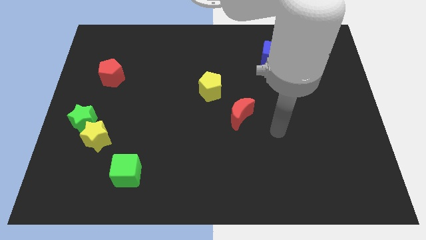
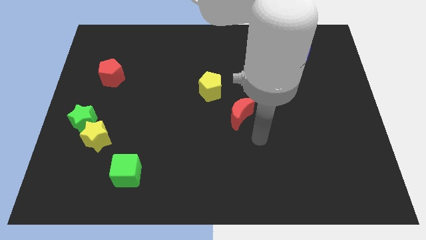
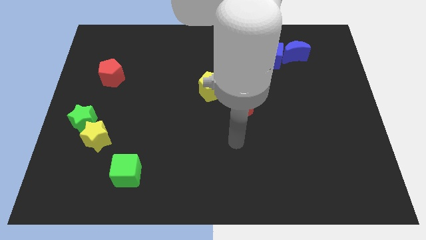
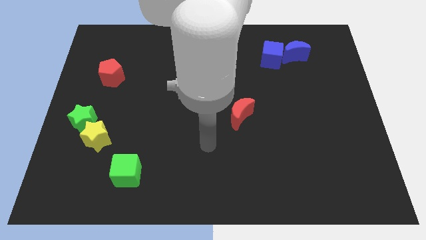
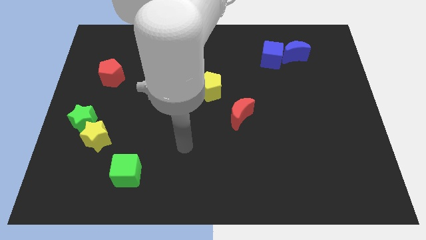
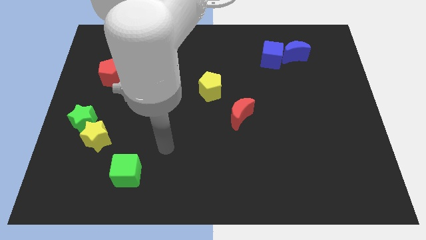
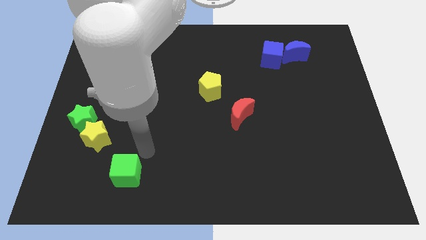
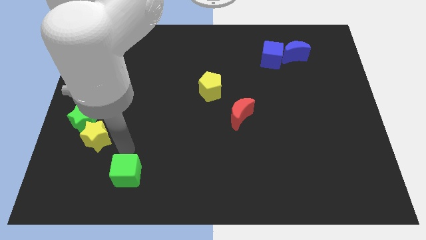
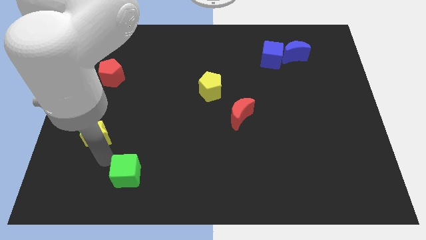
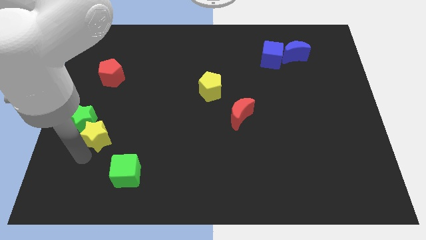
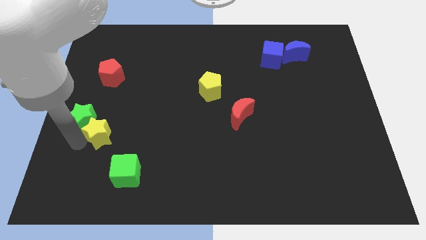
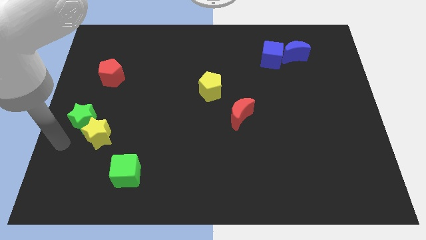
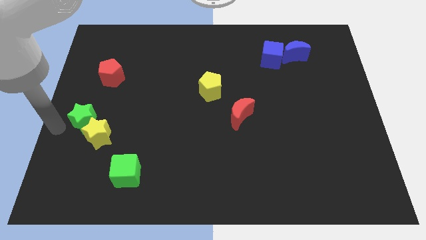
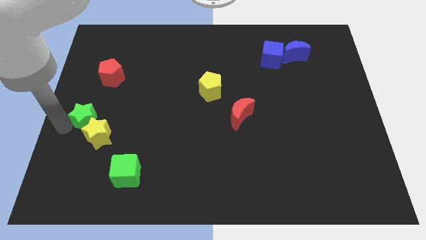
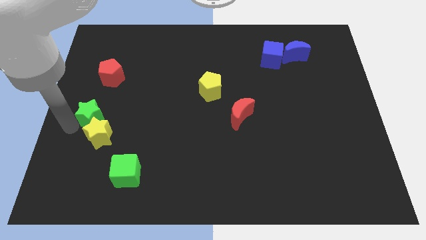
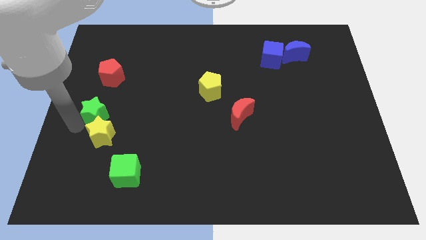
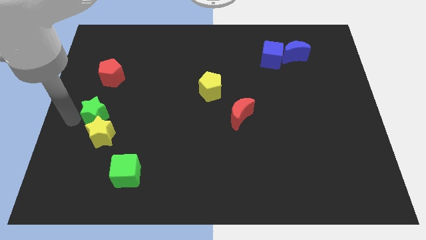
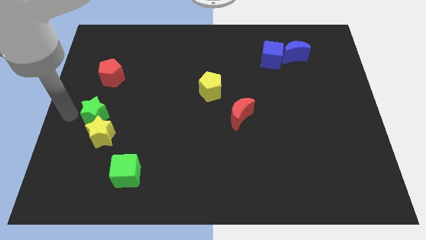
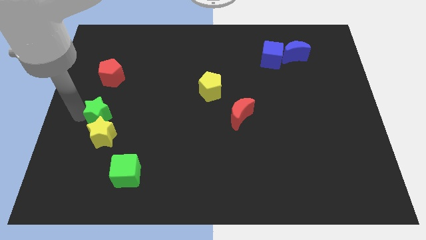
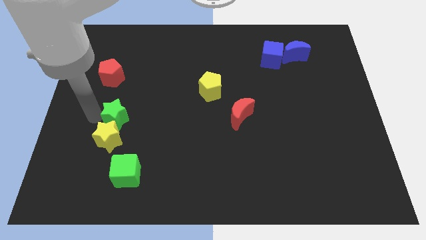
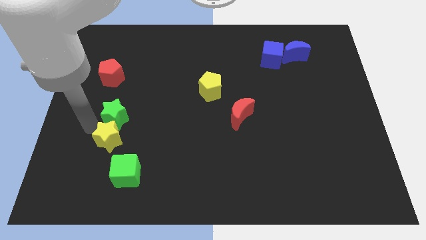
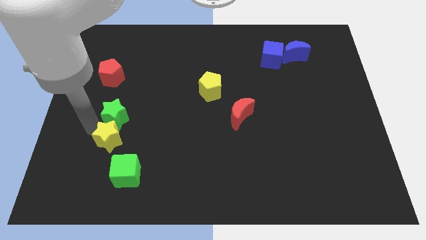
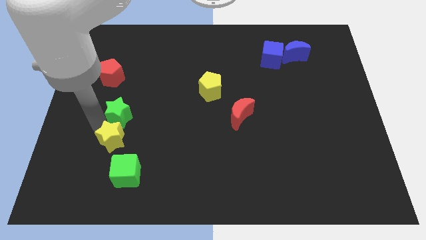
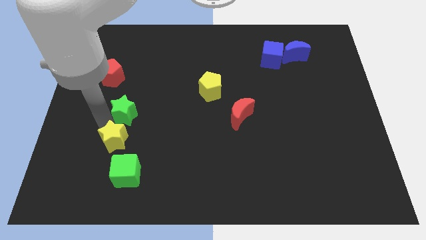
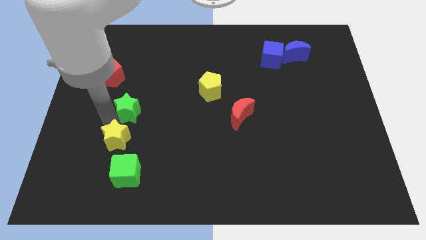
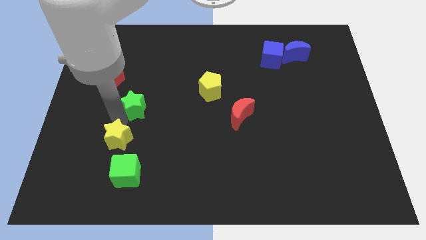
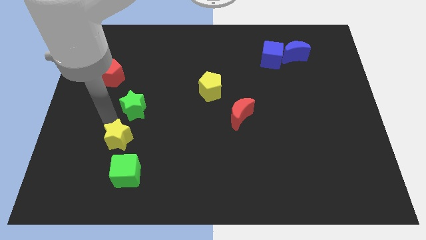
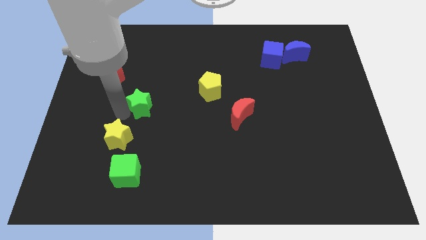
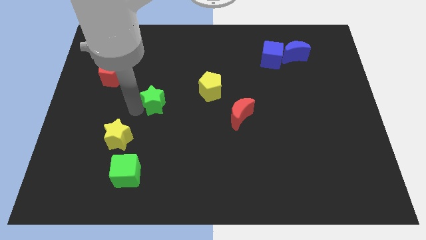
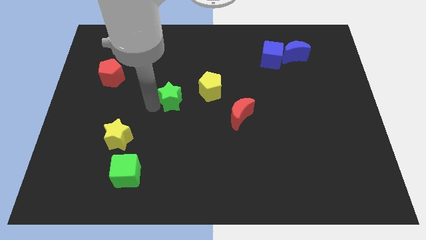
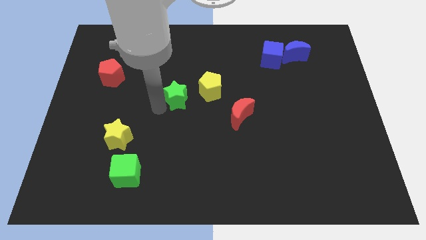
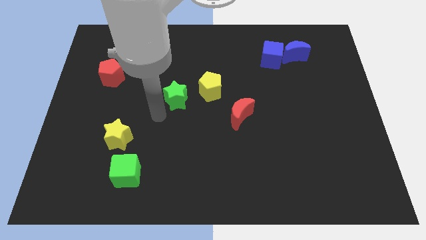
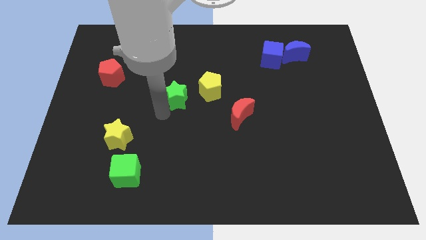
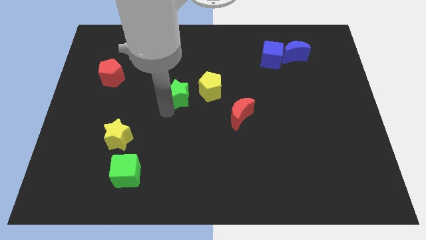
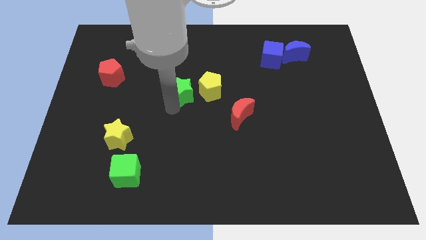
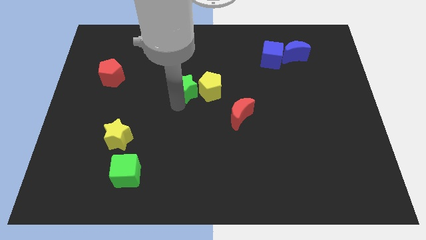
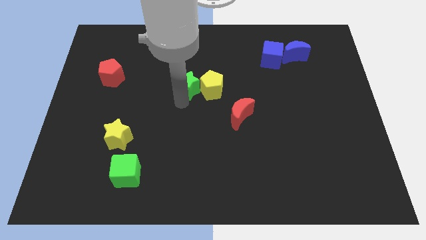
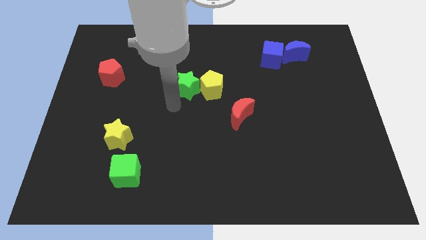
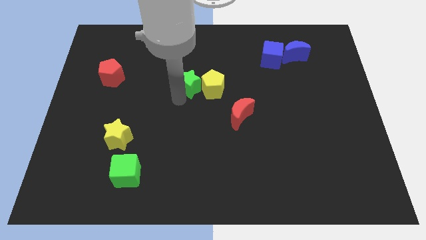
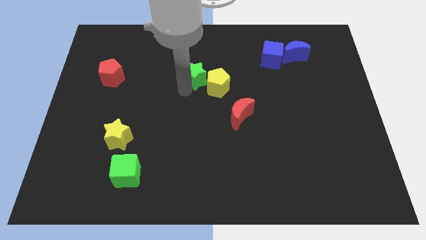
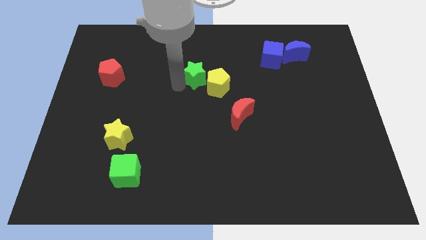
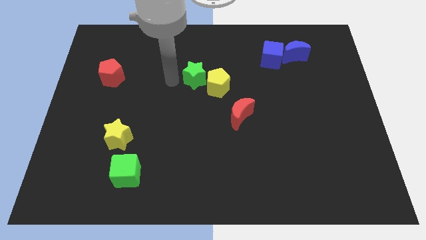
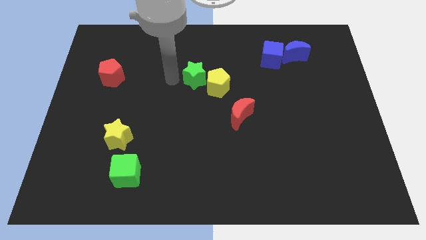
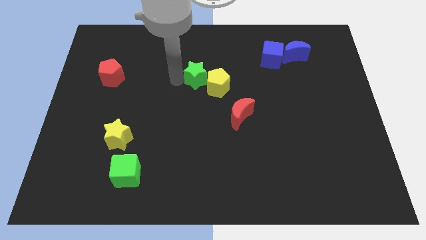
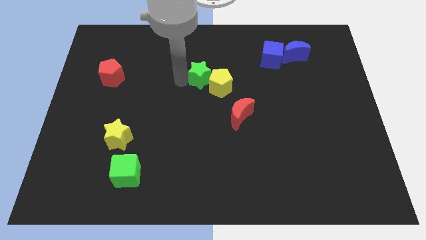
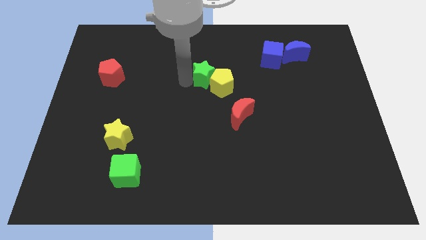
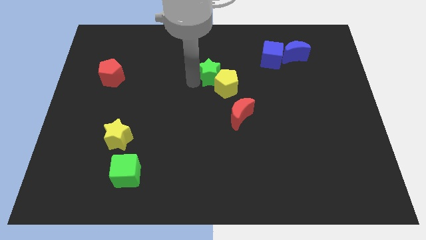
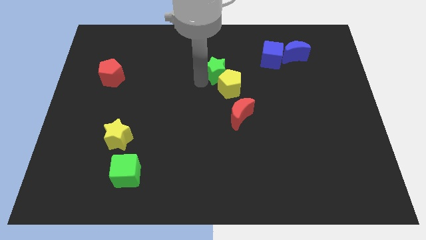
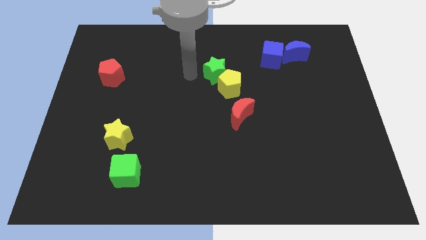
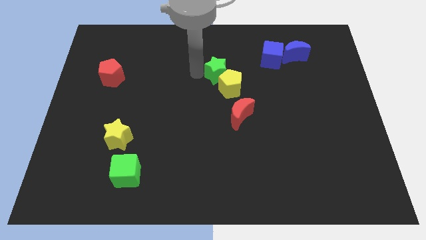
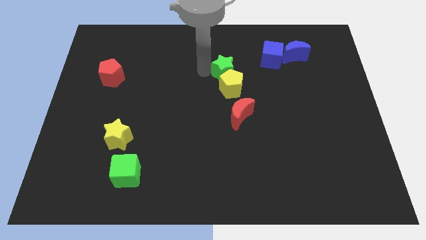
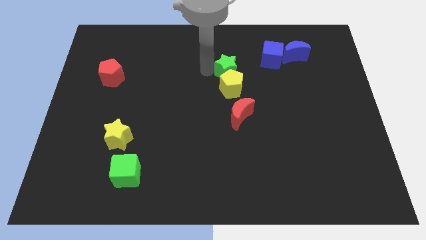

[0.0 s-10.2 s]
put the green star to the top right of the yellow pentagon

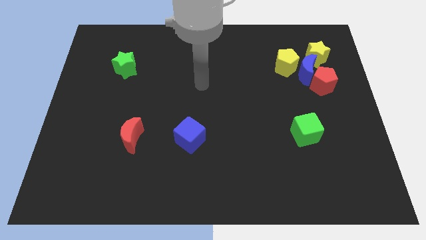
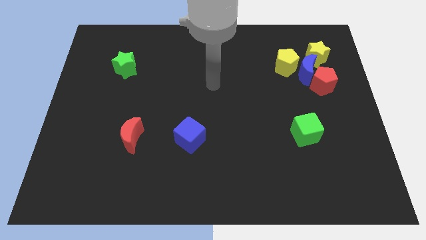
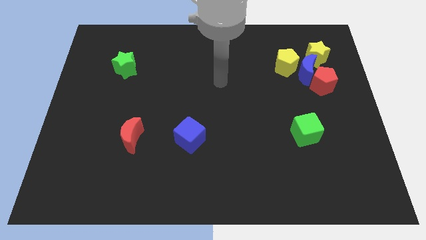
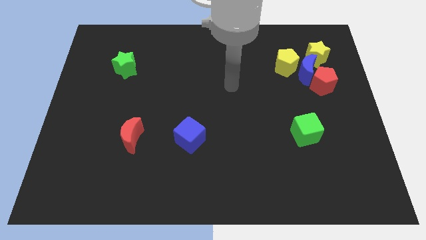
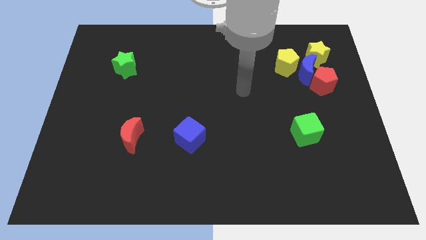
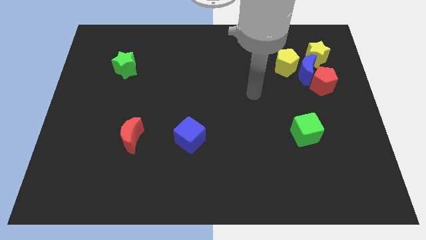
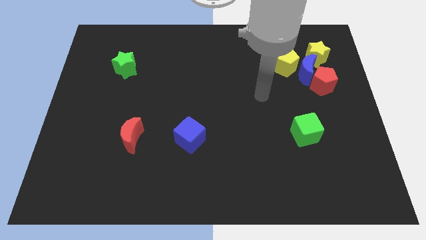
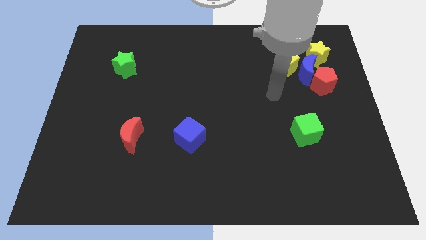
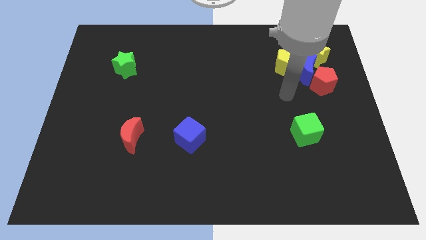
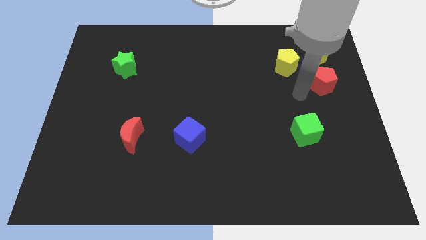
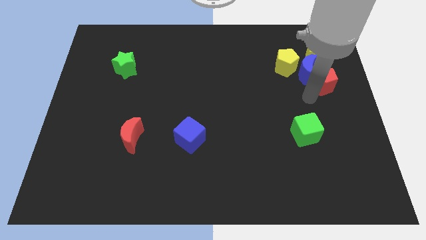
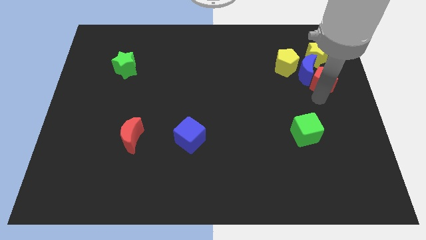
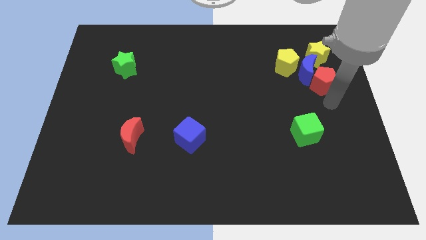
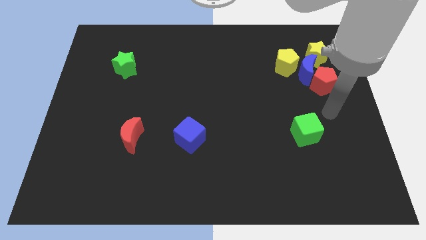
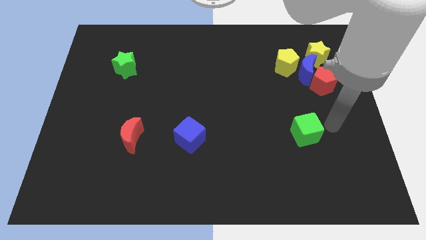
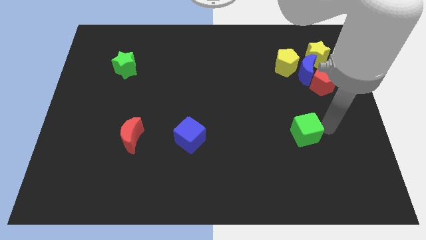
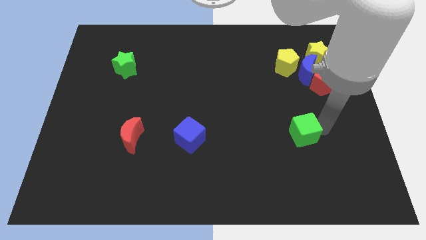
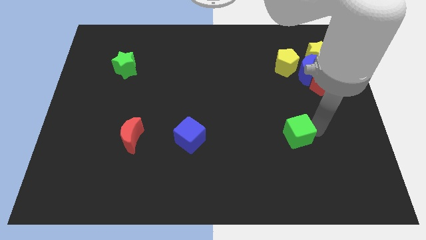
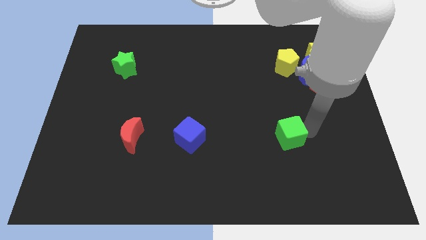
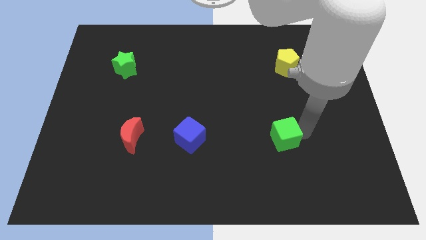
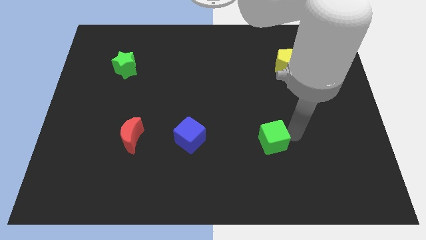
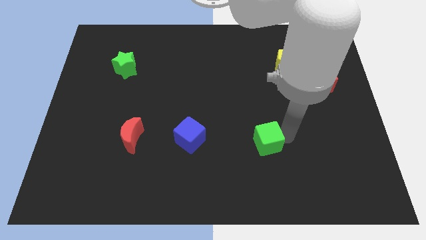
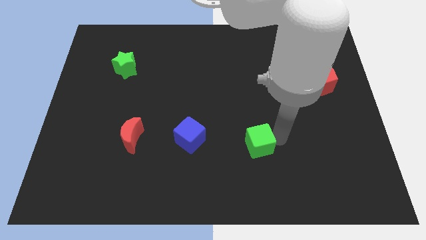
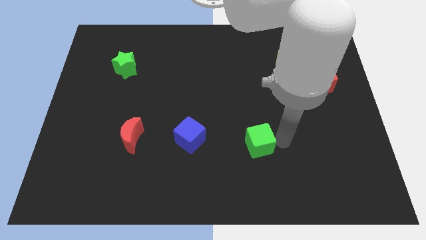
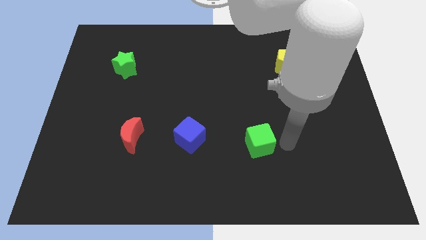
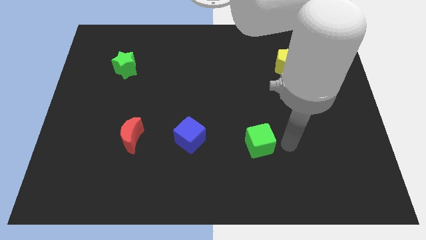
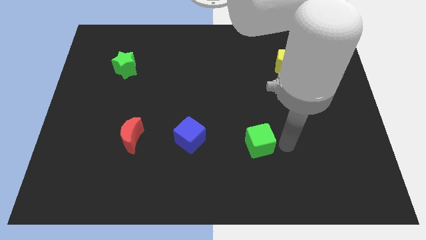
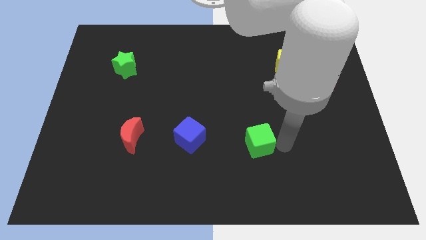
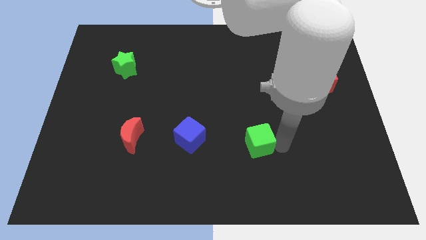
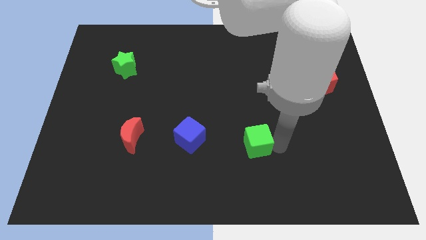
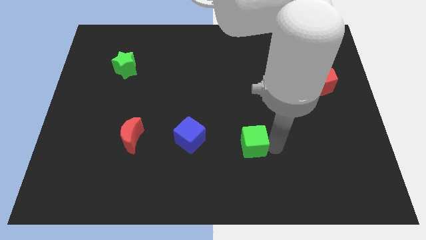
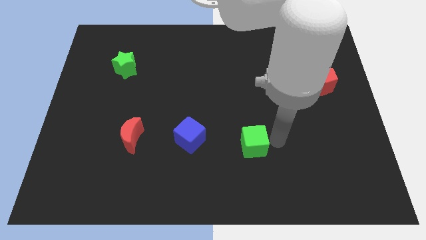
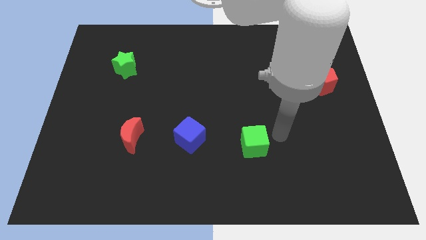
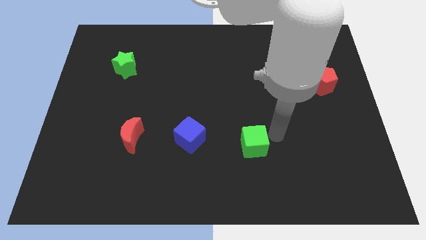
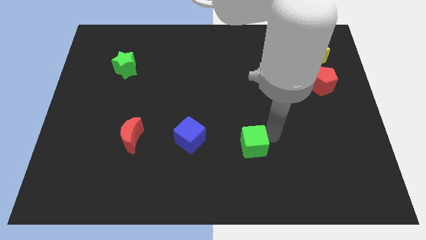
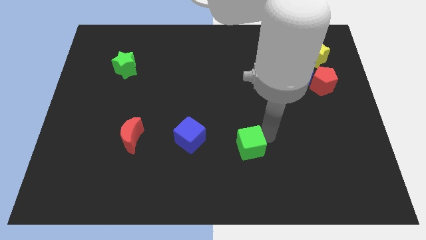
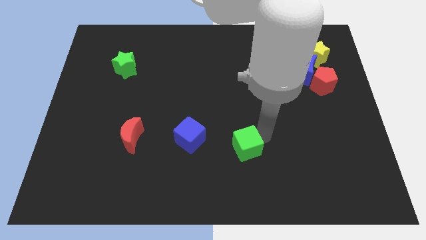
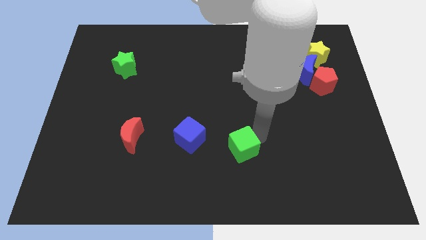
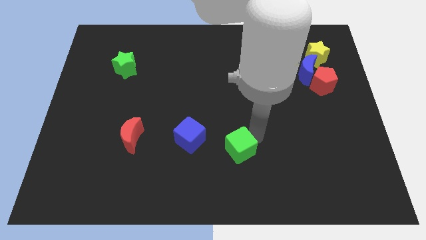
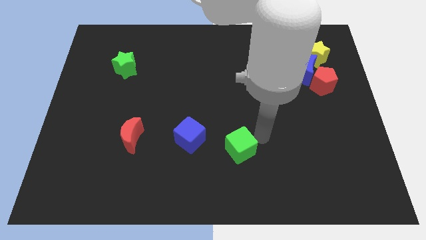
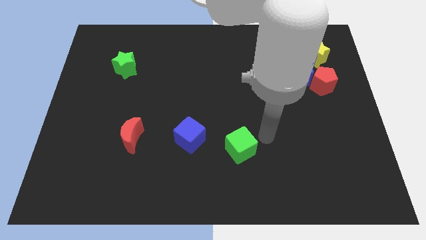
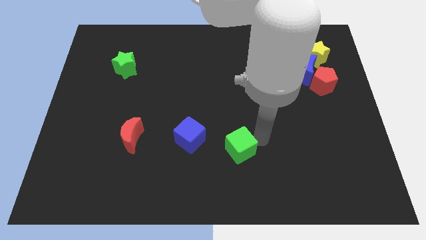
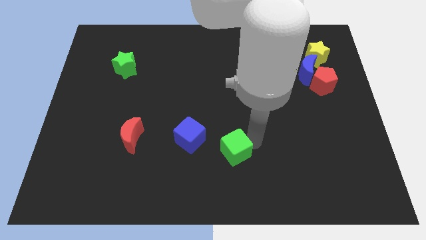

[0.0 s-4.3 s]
put the green cube to the bottom right side of the blue cube
